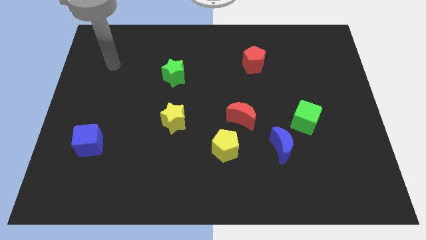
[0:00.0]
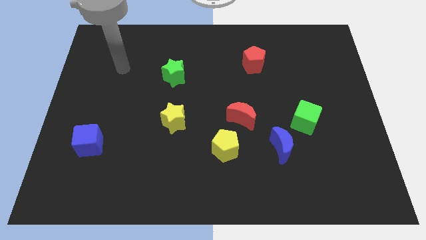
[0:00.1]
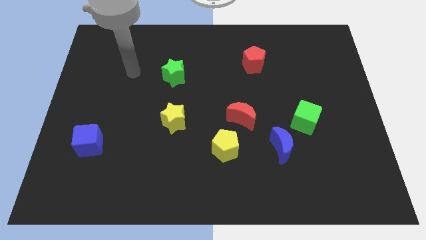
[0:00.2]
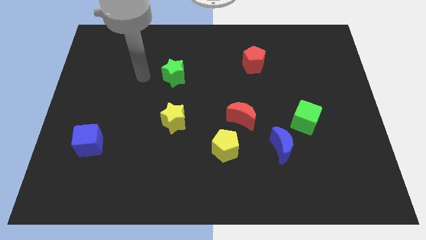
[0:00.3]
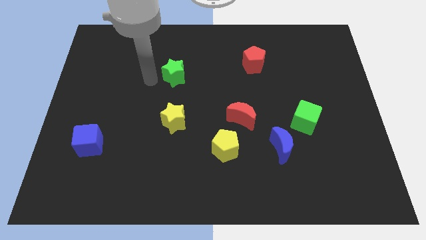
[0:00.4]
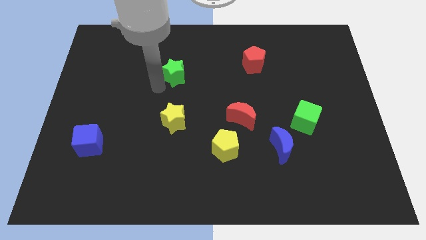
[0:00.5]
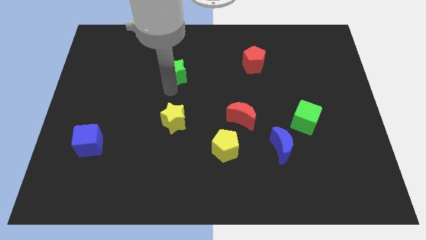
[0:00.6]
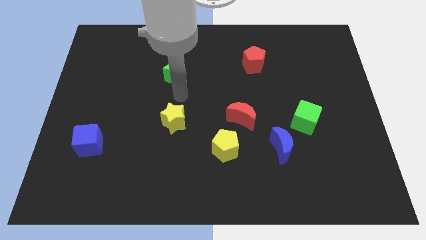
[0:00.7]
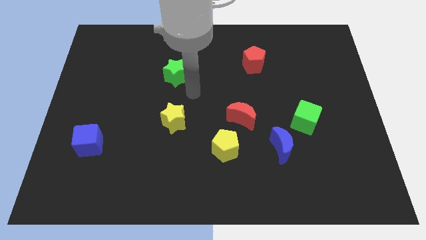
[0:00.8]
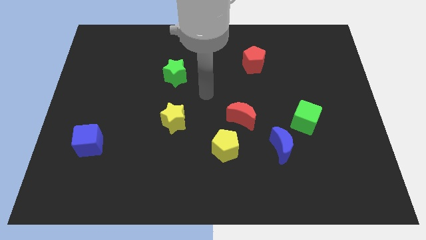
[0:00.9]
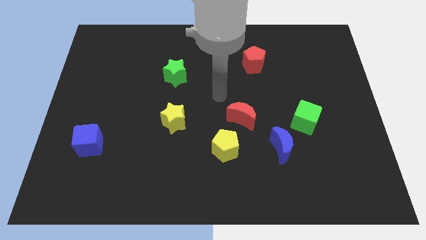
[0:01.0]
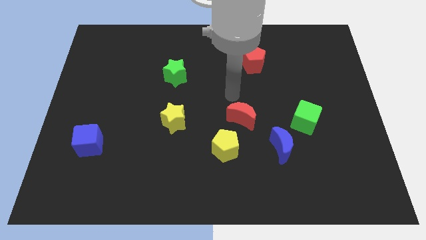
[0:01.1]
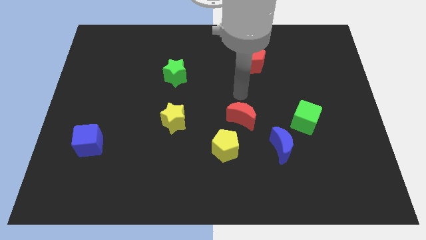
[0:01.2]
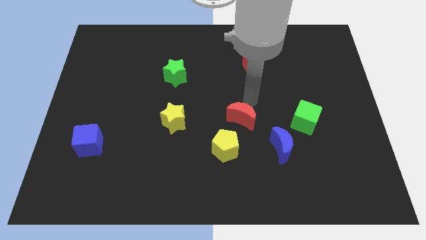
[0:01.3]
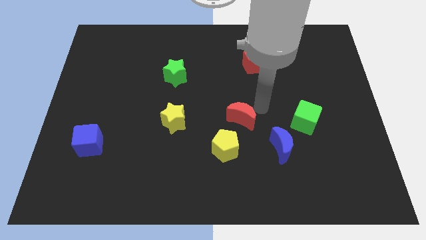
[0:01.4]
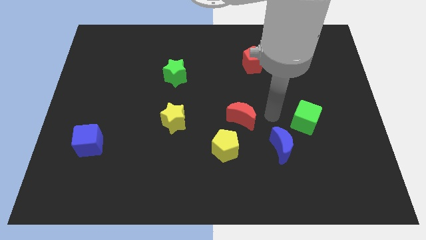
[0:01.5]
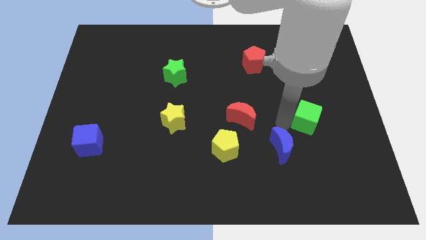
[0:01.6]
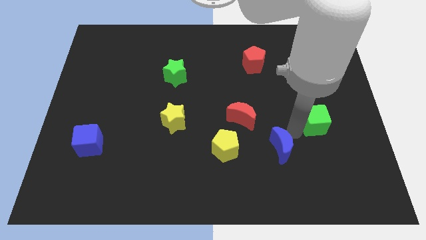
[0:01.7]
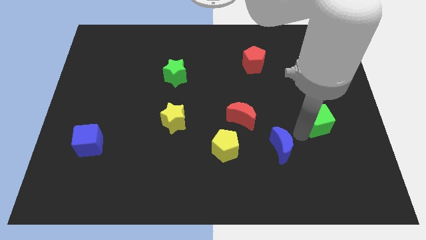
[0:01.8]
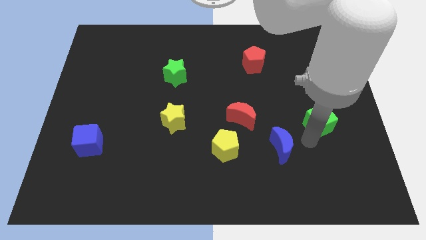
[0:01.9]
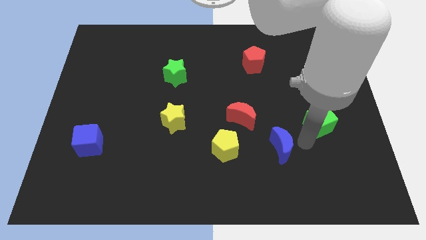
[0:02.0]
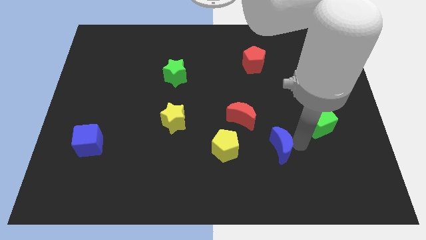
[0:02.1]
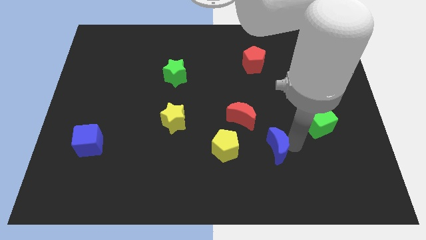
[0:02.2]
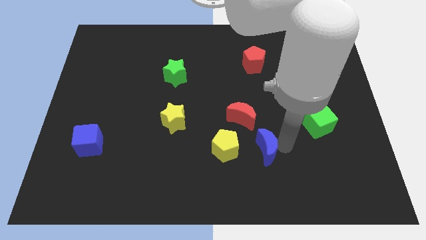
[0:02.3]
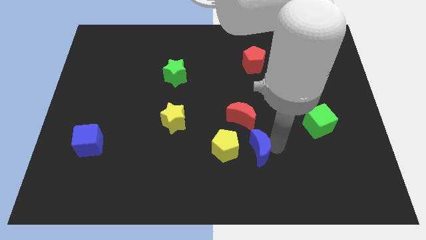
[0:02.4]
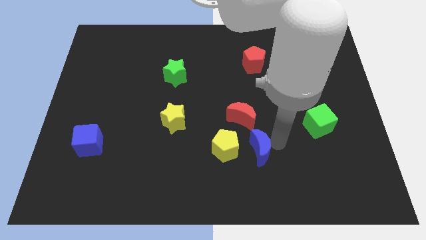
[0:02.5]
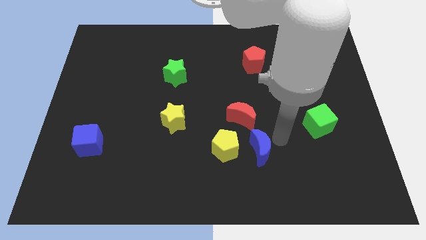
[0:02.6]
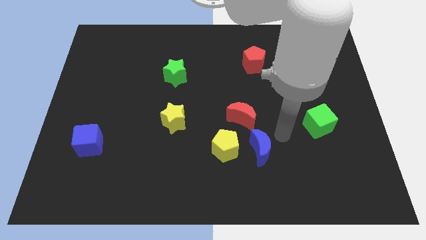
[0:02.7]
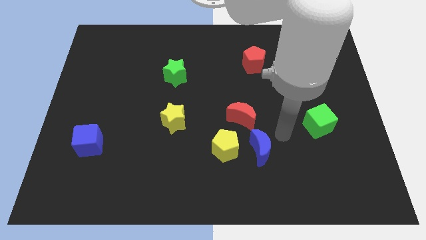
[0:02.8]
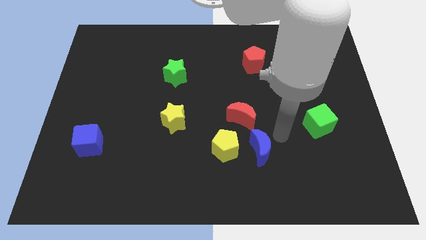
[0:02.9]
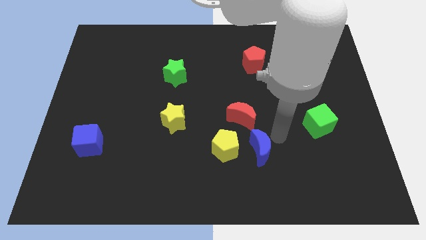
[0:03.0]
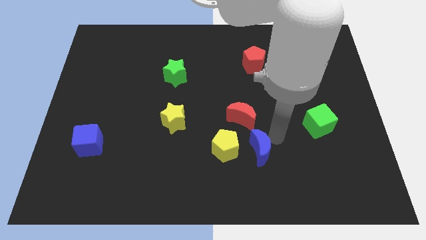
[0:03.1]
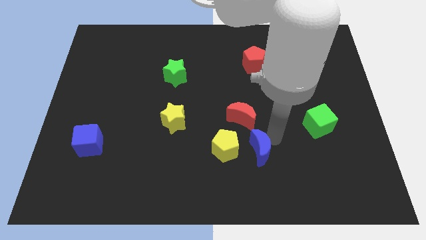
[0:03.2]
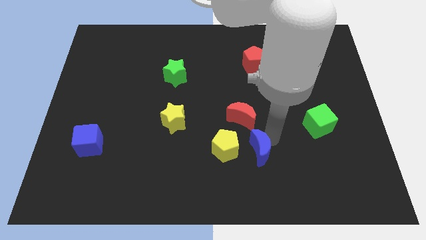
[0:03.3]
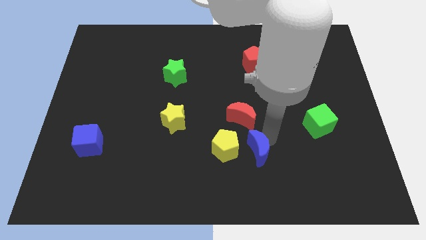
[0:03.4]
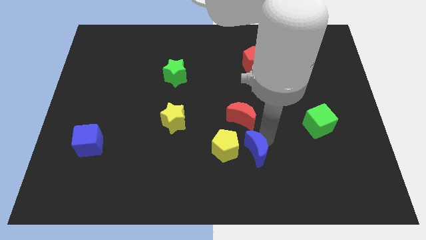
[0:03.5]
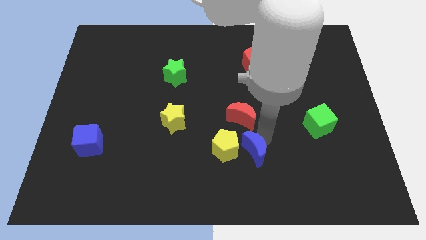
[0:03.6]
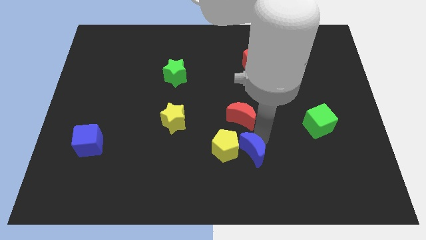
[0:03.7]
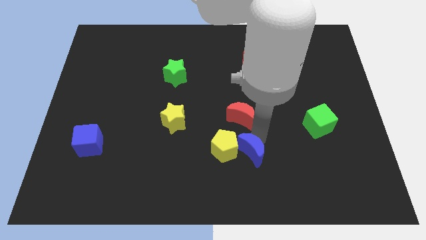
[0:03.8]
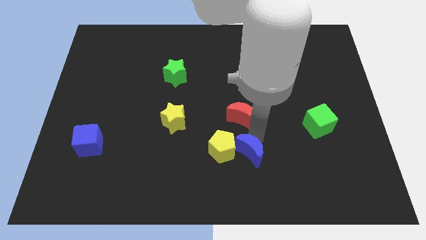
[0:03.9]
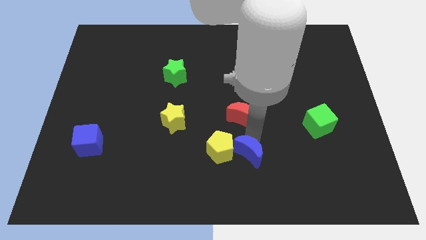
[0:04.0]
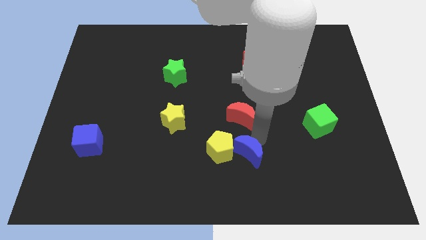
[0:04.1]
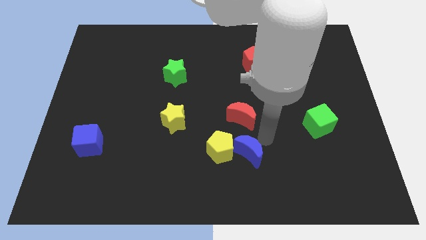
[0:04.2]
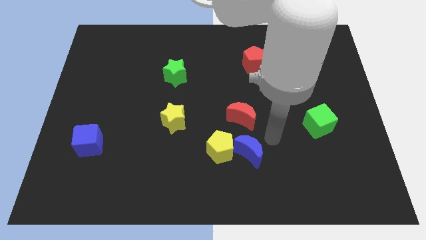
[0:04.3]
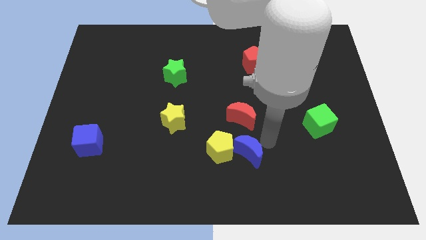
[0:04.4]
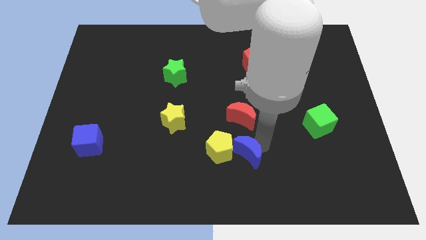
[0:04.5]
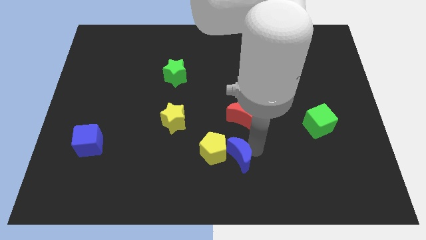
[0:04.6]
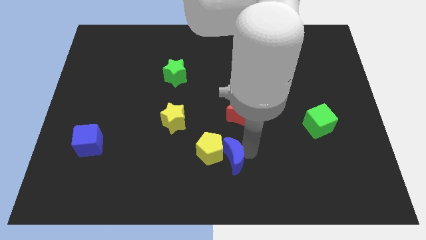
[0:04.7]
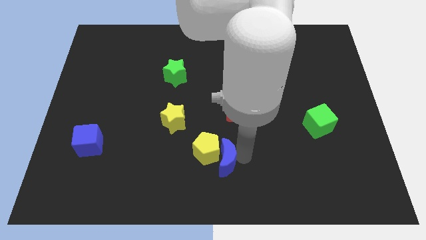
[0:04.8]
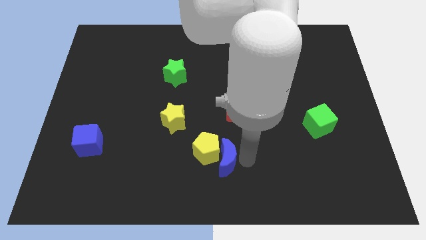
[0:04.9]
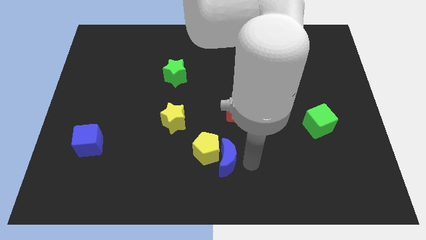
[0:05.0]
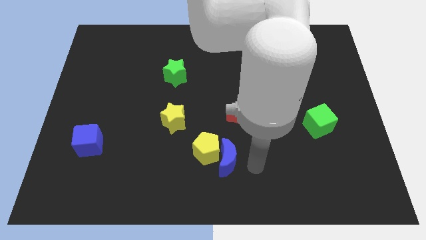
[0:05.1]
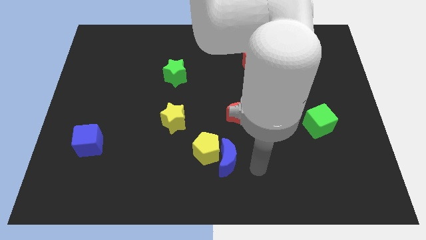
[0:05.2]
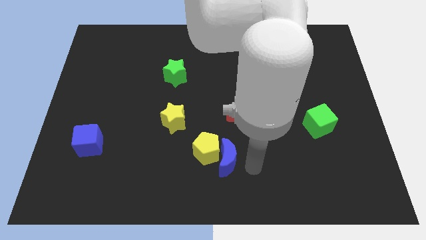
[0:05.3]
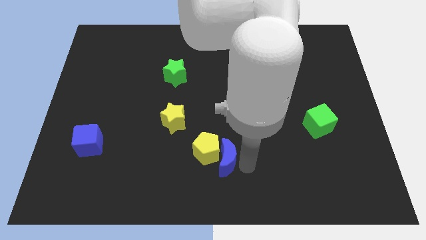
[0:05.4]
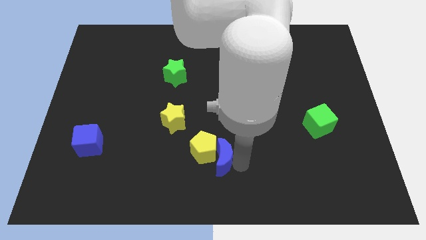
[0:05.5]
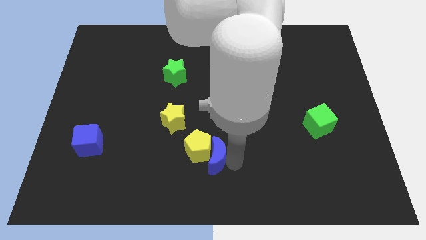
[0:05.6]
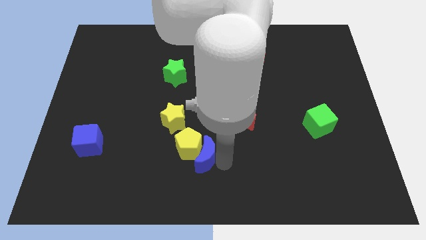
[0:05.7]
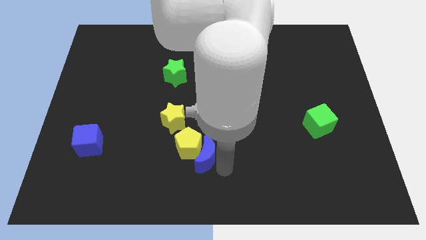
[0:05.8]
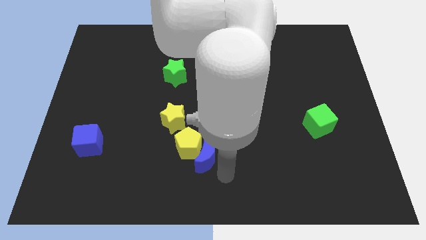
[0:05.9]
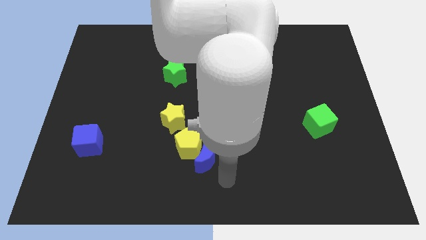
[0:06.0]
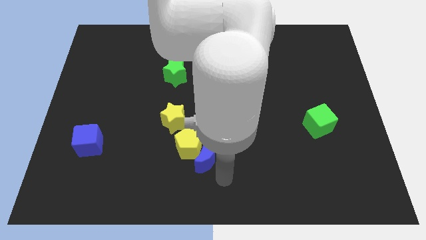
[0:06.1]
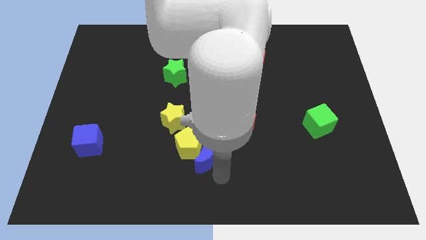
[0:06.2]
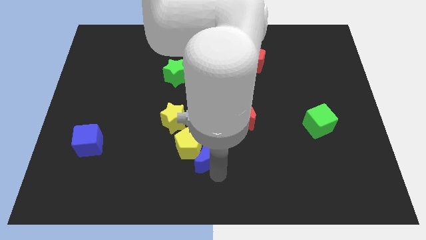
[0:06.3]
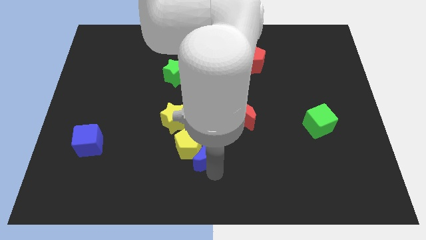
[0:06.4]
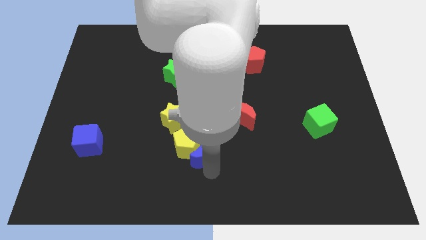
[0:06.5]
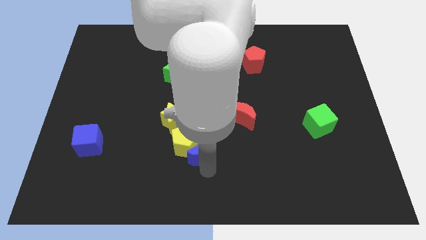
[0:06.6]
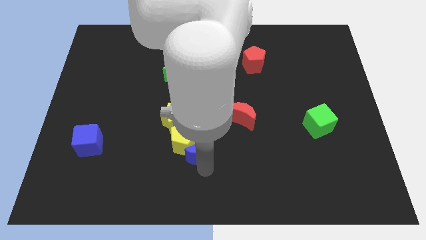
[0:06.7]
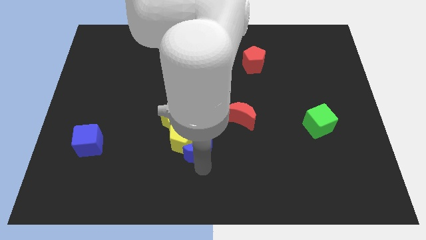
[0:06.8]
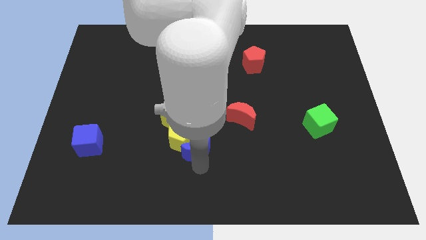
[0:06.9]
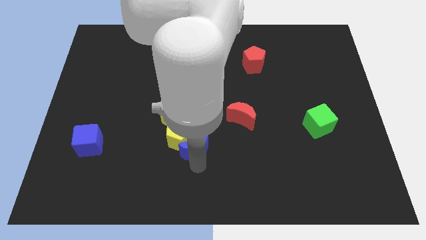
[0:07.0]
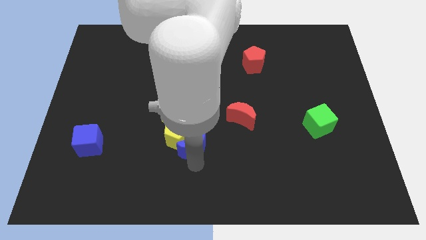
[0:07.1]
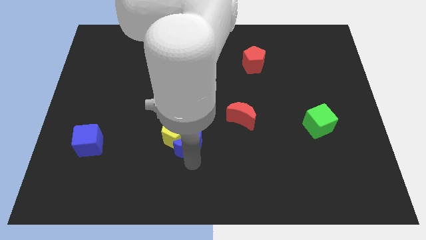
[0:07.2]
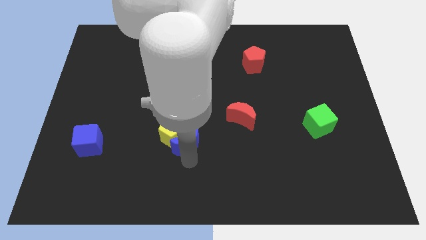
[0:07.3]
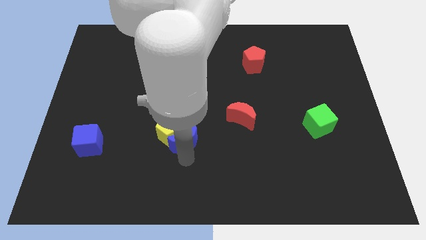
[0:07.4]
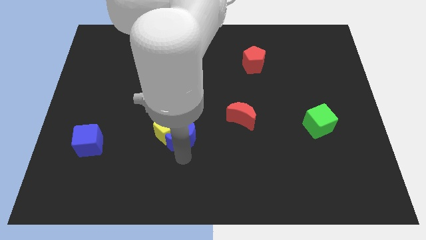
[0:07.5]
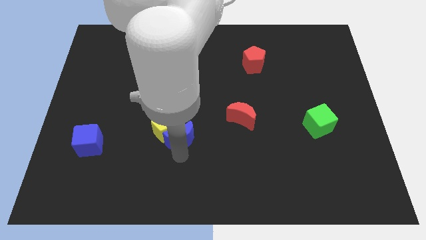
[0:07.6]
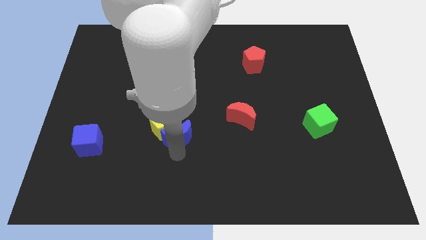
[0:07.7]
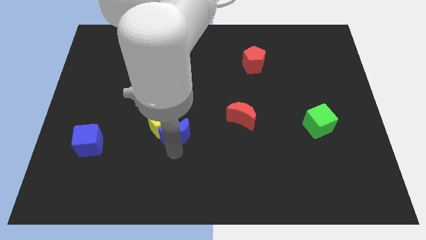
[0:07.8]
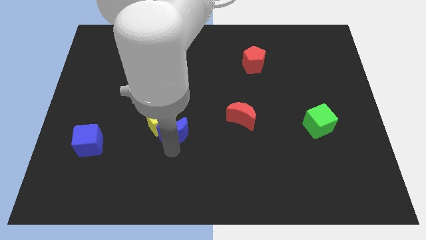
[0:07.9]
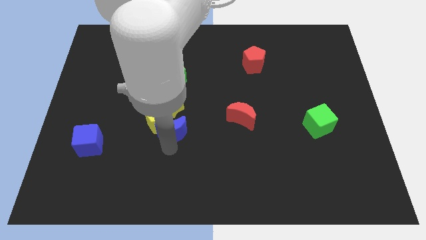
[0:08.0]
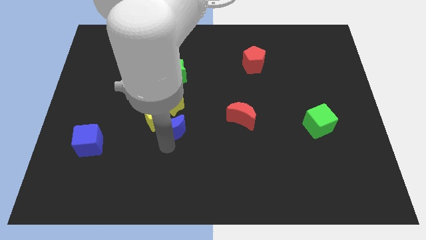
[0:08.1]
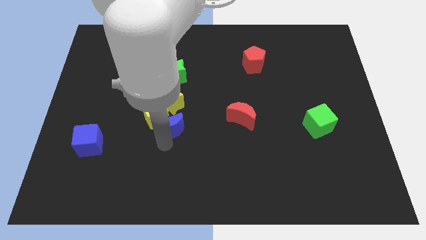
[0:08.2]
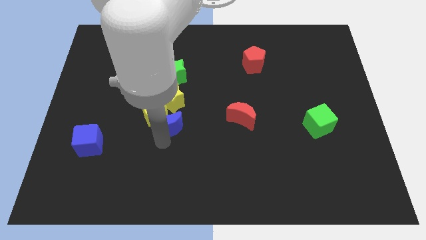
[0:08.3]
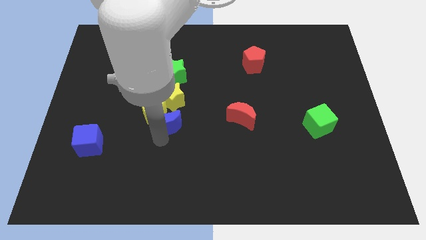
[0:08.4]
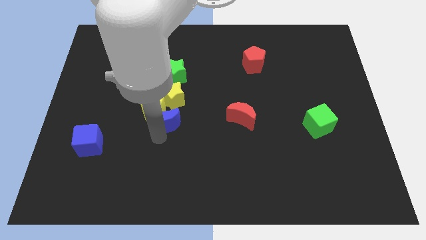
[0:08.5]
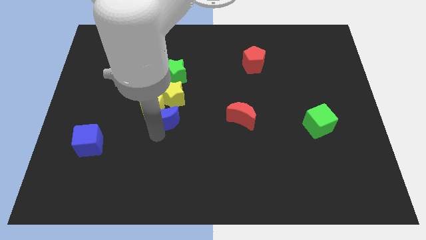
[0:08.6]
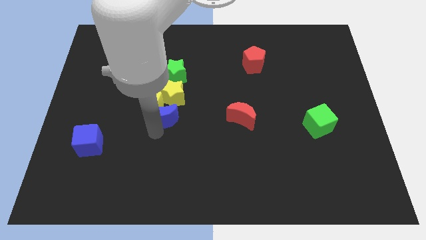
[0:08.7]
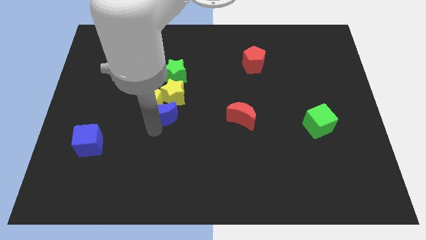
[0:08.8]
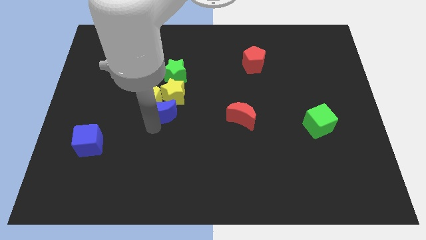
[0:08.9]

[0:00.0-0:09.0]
slide the blue moon close to the yellow star
